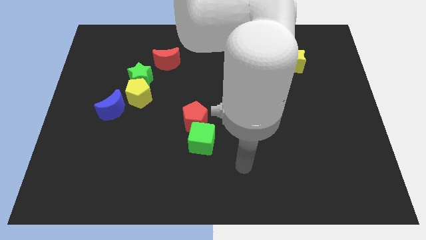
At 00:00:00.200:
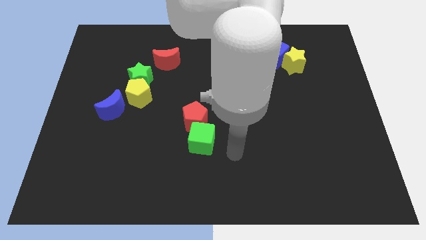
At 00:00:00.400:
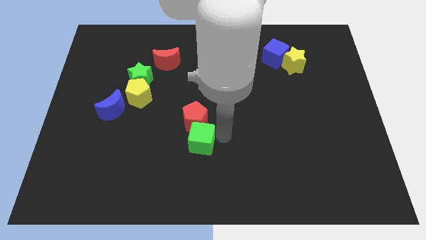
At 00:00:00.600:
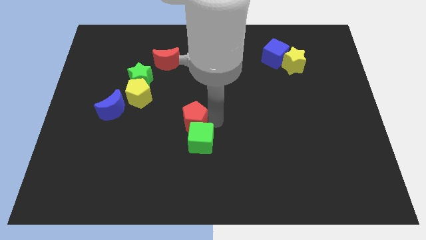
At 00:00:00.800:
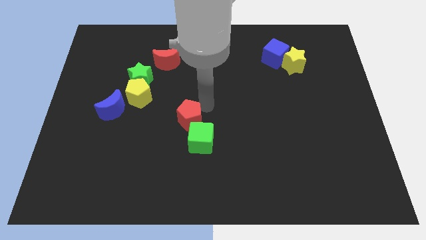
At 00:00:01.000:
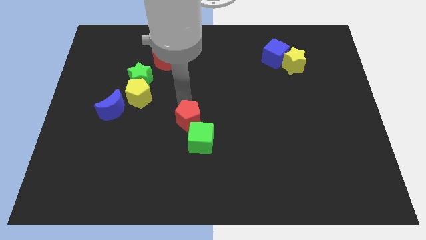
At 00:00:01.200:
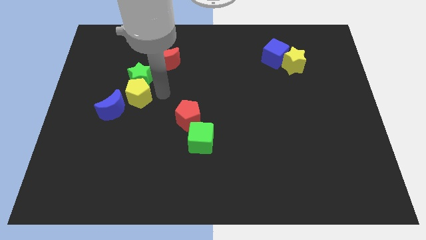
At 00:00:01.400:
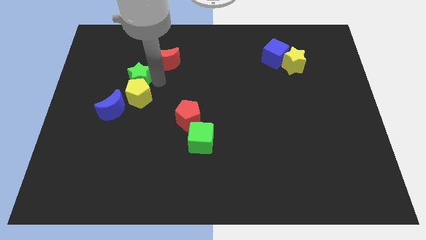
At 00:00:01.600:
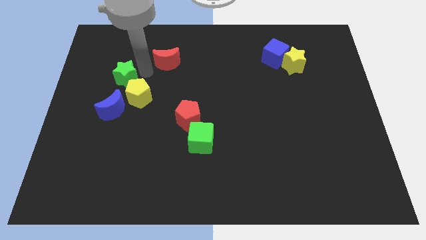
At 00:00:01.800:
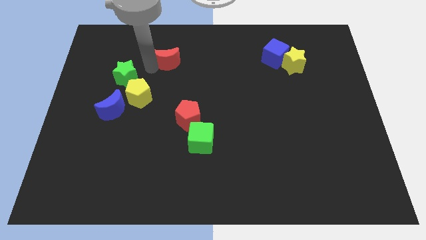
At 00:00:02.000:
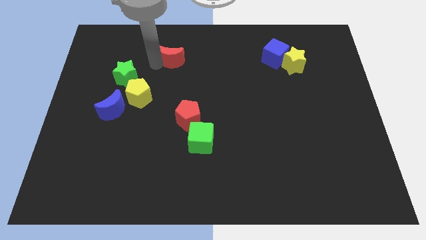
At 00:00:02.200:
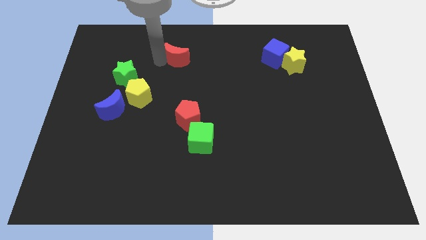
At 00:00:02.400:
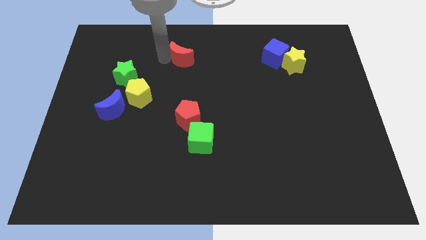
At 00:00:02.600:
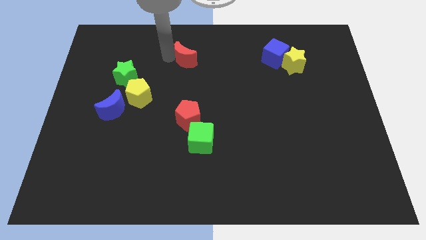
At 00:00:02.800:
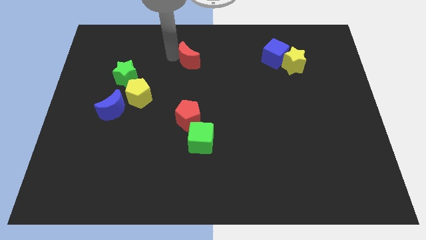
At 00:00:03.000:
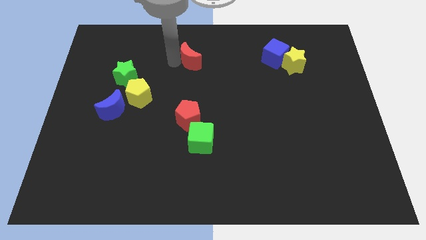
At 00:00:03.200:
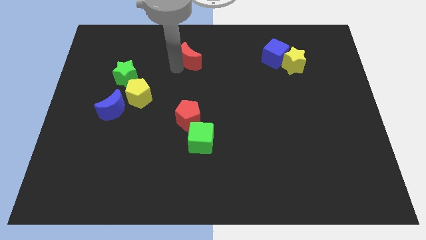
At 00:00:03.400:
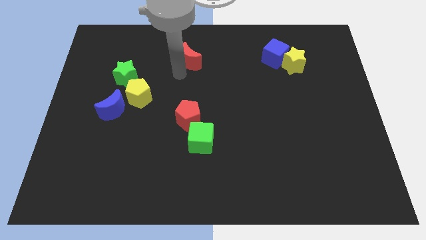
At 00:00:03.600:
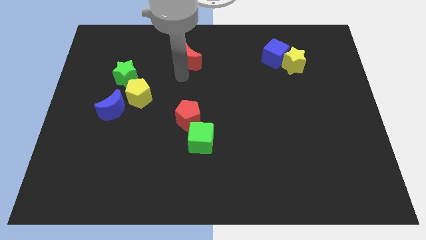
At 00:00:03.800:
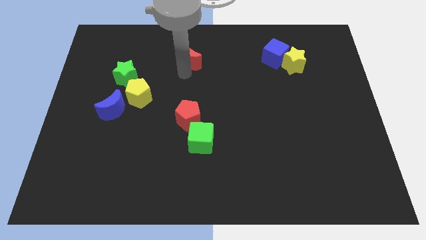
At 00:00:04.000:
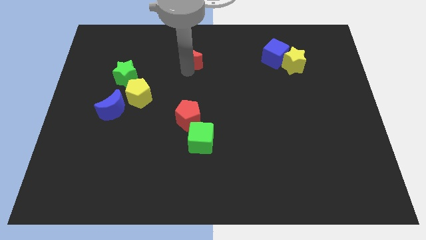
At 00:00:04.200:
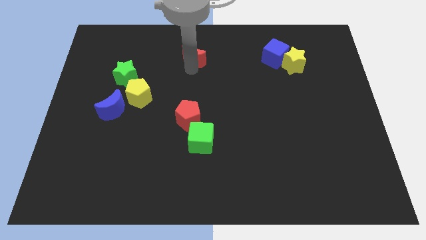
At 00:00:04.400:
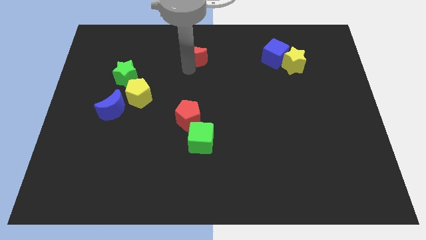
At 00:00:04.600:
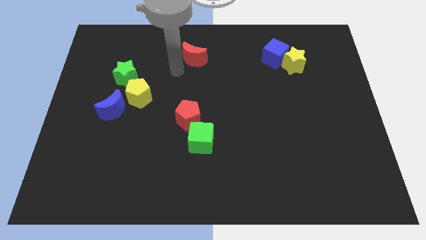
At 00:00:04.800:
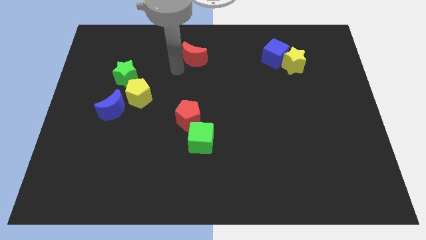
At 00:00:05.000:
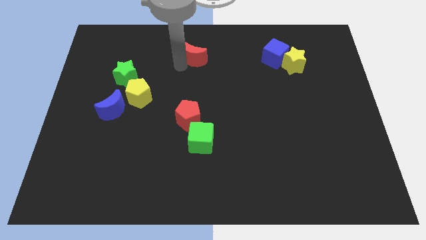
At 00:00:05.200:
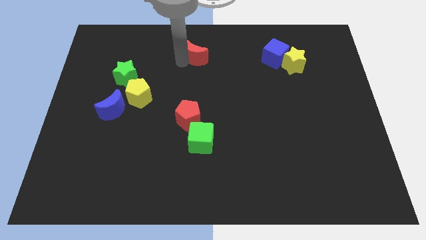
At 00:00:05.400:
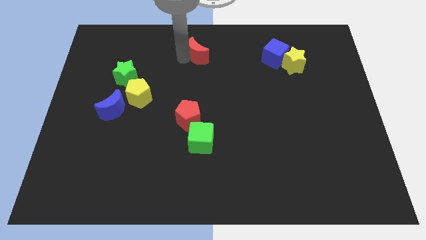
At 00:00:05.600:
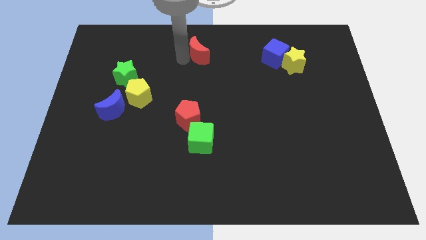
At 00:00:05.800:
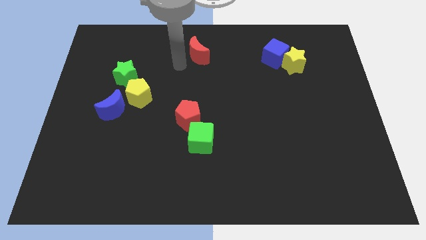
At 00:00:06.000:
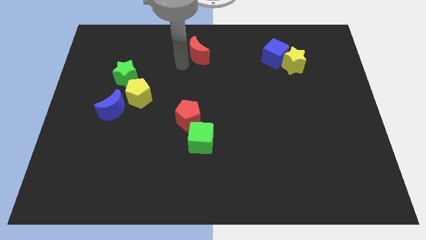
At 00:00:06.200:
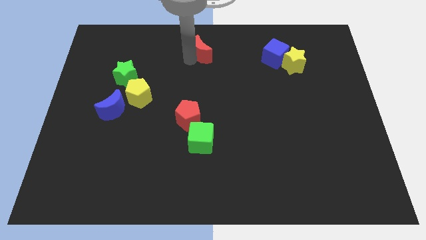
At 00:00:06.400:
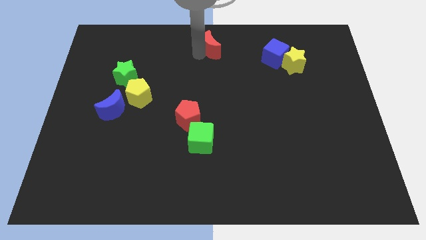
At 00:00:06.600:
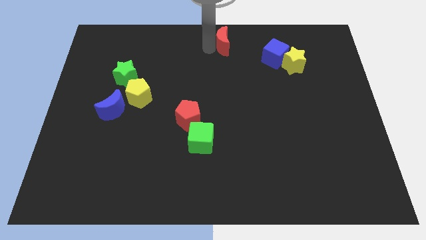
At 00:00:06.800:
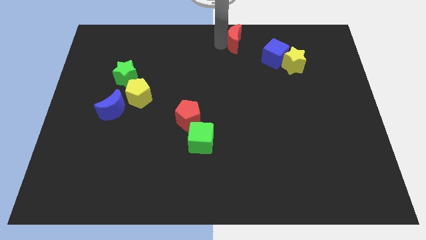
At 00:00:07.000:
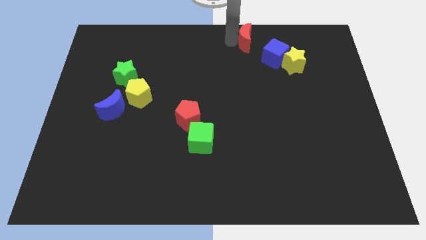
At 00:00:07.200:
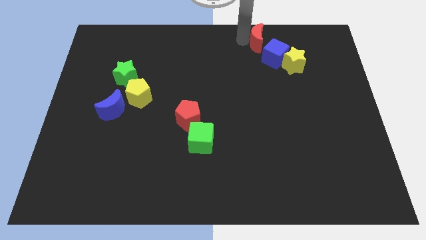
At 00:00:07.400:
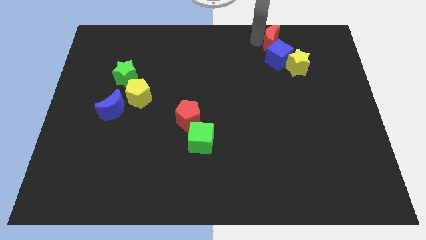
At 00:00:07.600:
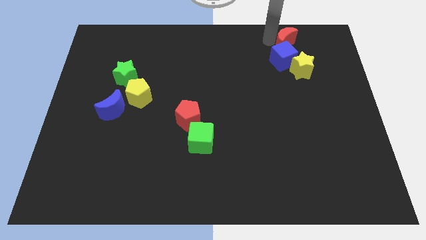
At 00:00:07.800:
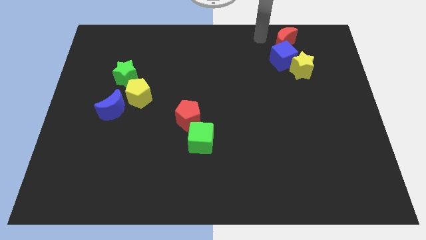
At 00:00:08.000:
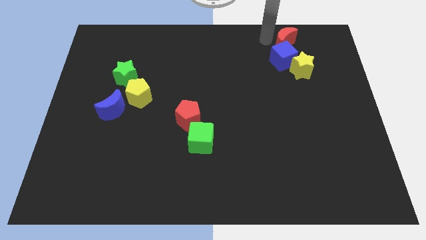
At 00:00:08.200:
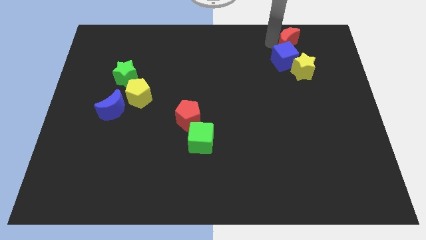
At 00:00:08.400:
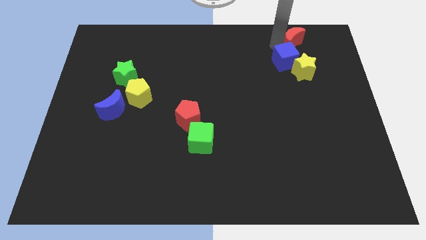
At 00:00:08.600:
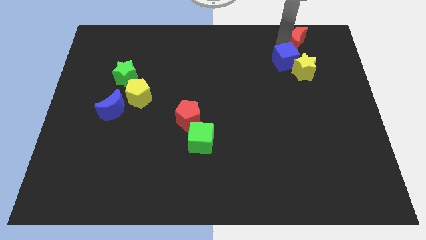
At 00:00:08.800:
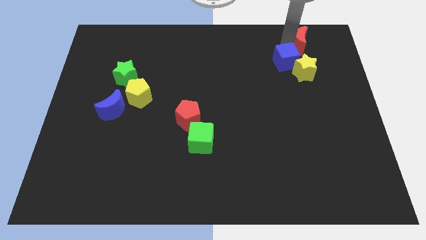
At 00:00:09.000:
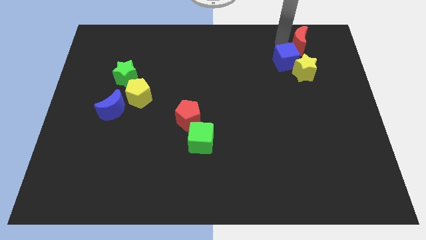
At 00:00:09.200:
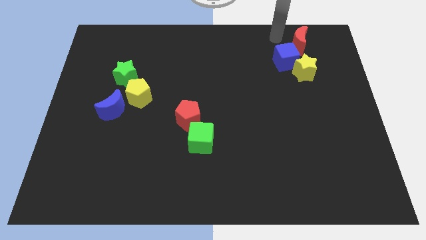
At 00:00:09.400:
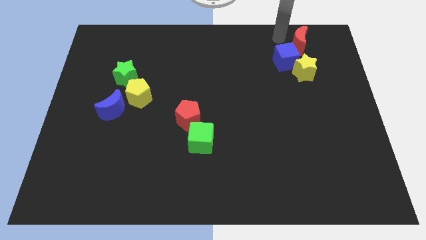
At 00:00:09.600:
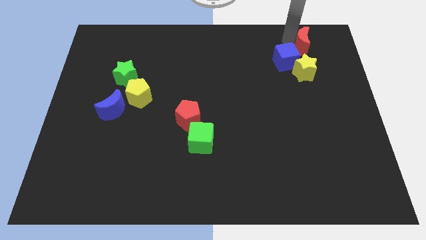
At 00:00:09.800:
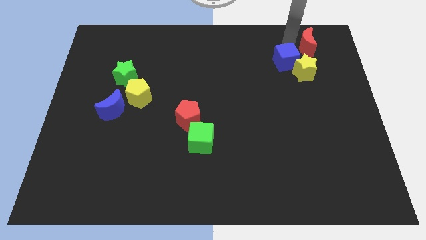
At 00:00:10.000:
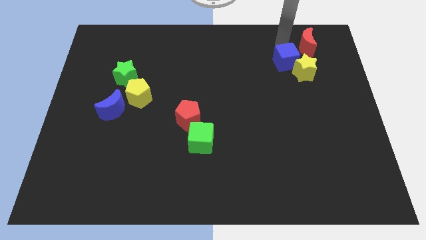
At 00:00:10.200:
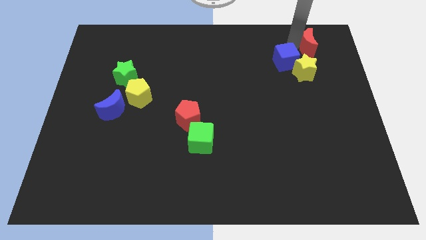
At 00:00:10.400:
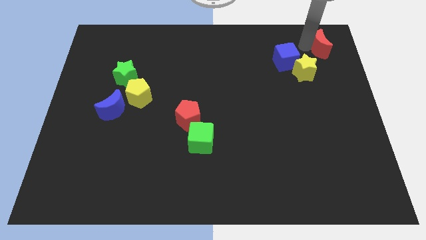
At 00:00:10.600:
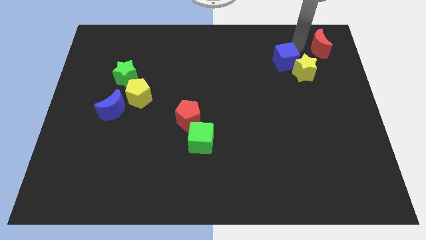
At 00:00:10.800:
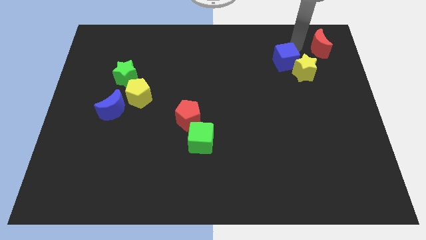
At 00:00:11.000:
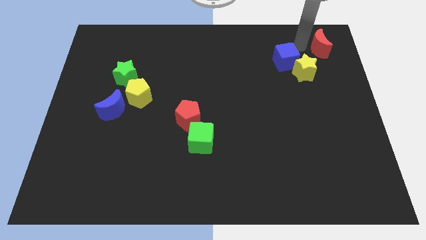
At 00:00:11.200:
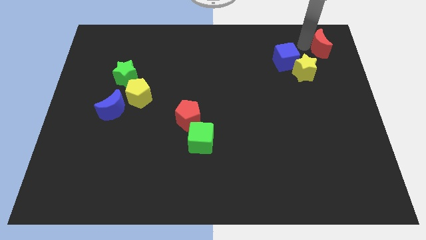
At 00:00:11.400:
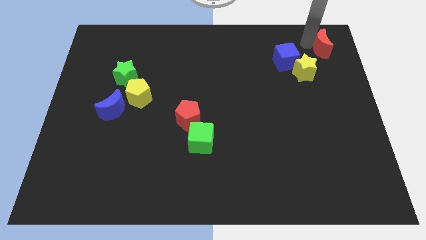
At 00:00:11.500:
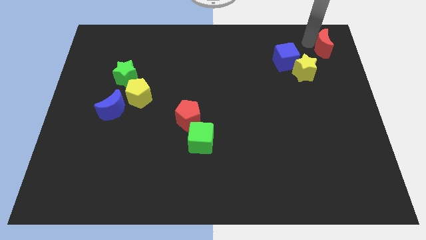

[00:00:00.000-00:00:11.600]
push the red moon to the top right corner

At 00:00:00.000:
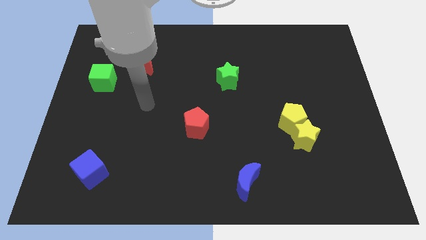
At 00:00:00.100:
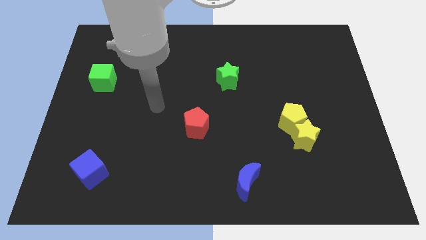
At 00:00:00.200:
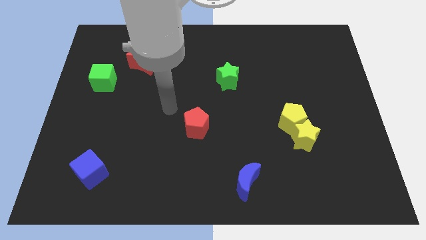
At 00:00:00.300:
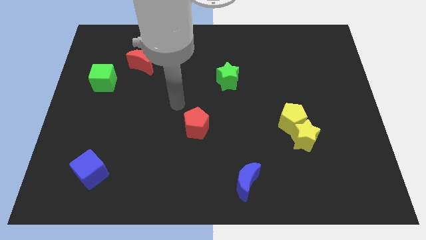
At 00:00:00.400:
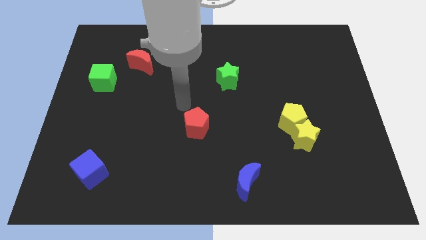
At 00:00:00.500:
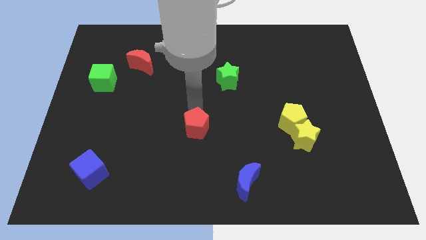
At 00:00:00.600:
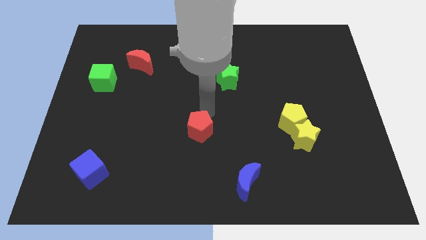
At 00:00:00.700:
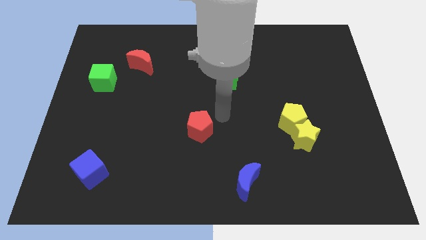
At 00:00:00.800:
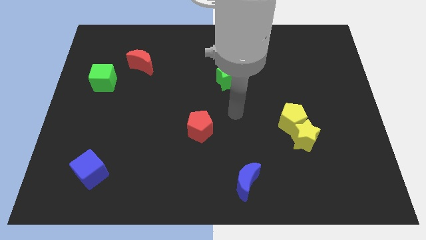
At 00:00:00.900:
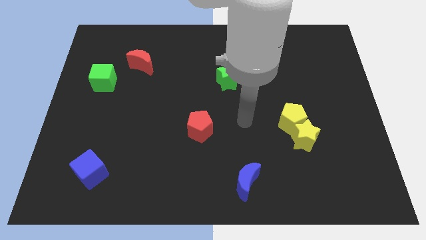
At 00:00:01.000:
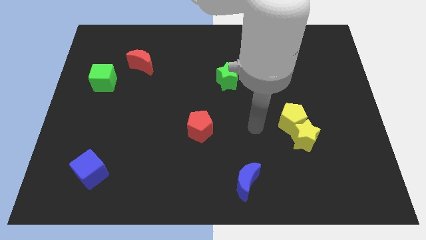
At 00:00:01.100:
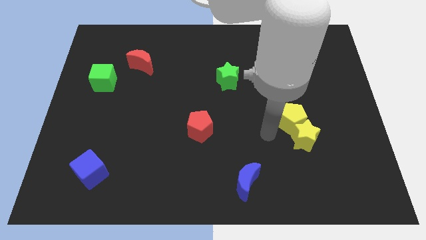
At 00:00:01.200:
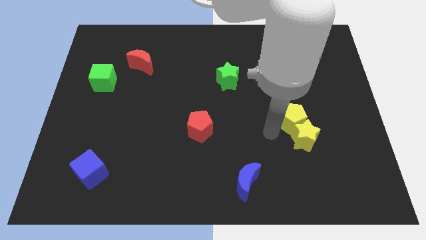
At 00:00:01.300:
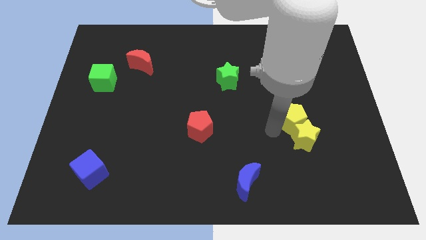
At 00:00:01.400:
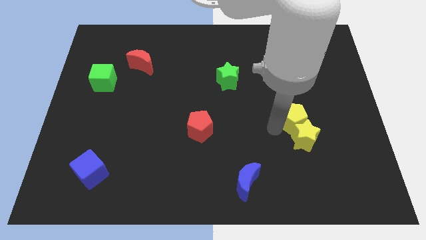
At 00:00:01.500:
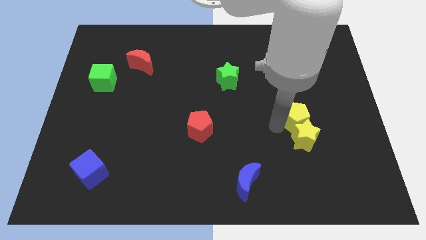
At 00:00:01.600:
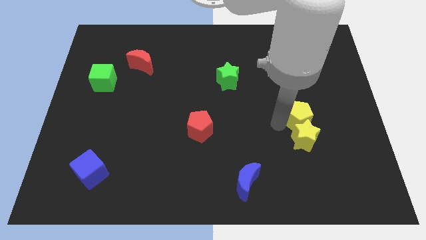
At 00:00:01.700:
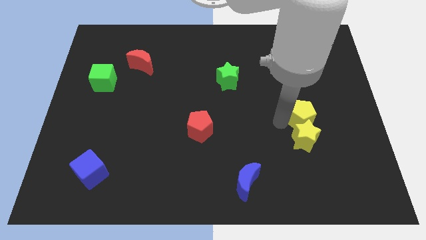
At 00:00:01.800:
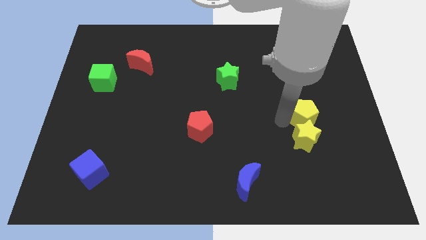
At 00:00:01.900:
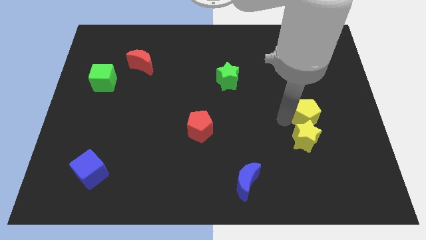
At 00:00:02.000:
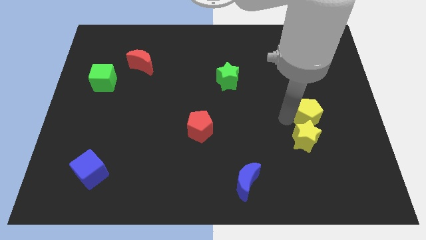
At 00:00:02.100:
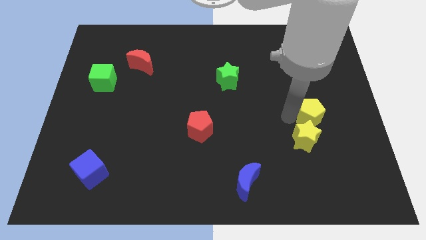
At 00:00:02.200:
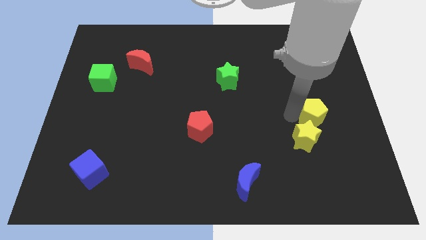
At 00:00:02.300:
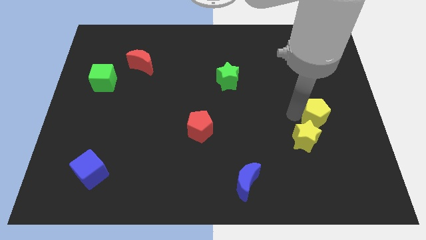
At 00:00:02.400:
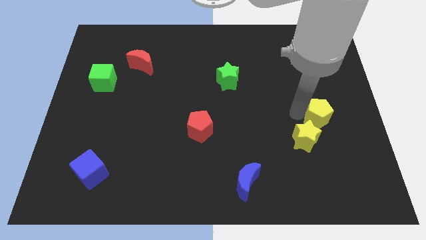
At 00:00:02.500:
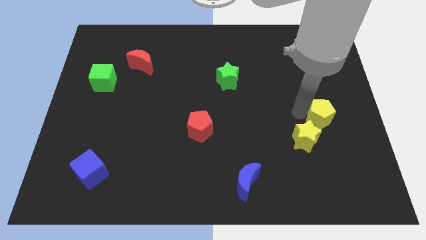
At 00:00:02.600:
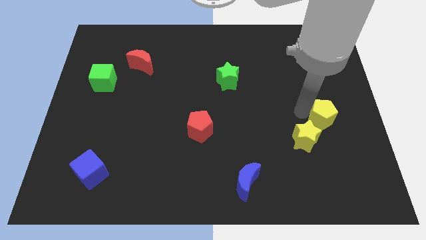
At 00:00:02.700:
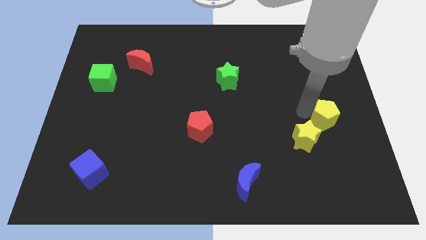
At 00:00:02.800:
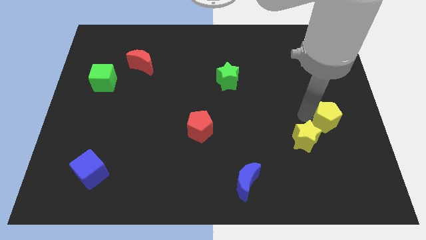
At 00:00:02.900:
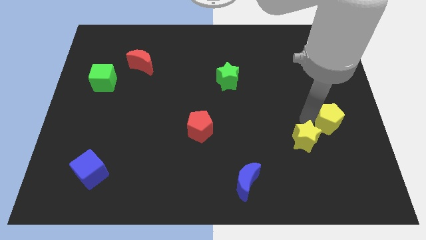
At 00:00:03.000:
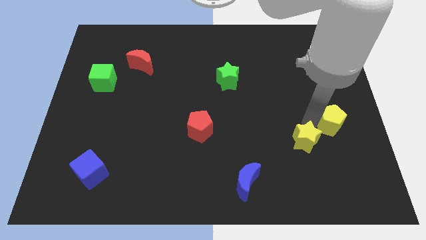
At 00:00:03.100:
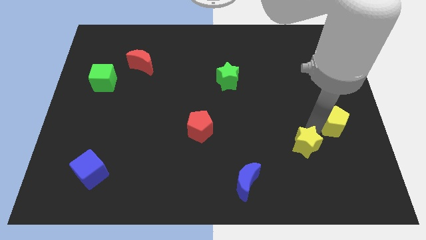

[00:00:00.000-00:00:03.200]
push the yellow pentagon to the right side of the board
